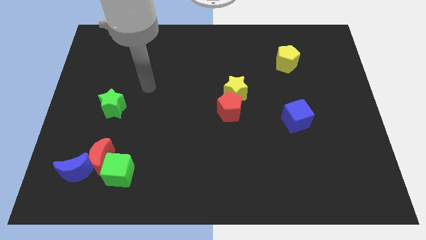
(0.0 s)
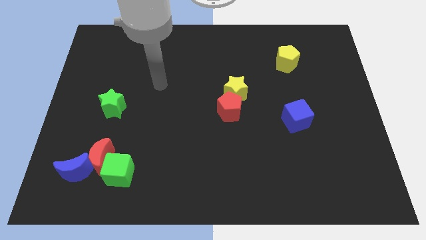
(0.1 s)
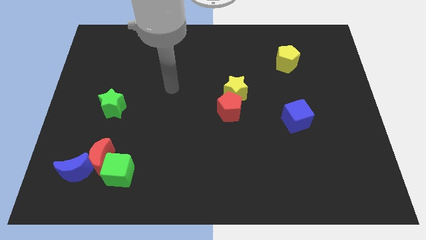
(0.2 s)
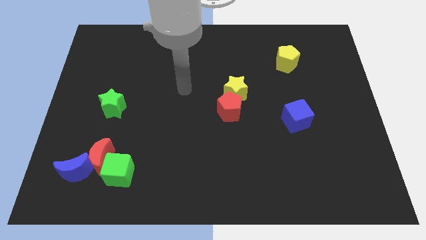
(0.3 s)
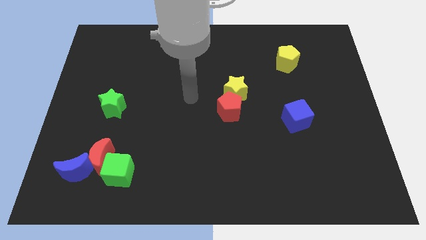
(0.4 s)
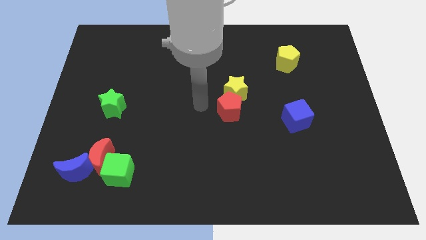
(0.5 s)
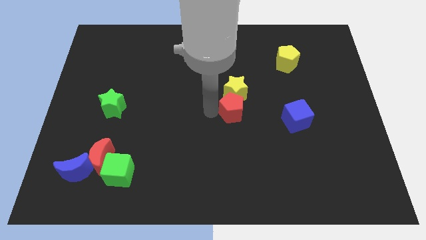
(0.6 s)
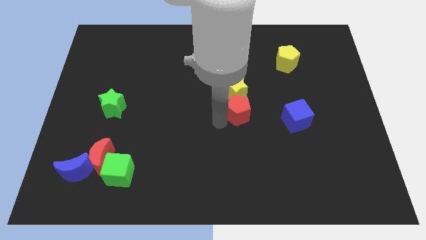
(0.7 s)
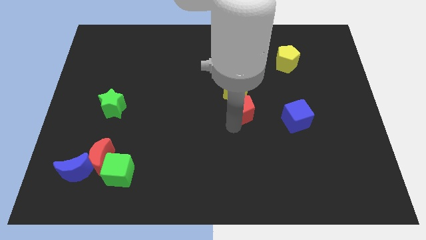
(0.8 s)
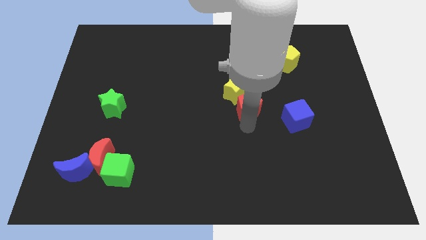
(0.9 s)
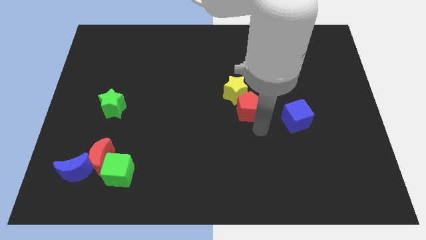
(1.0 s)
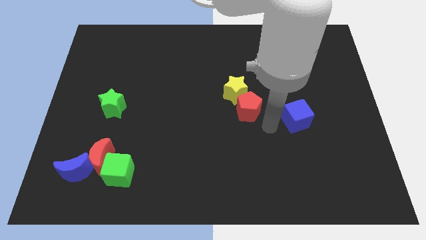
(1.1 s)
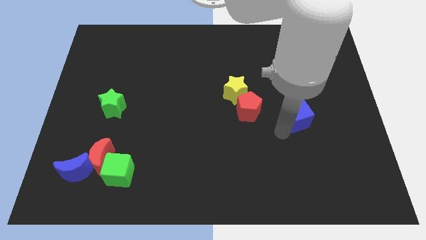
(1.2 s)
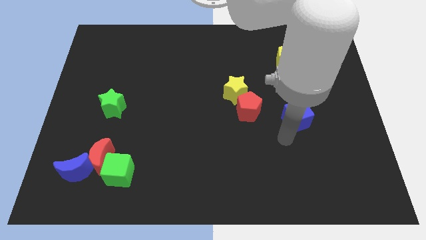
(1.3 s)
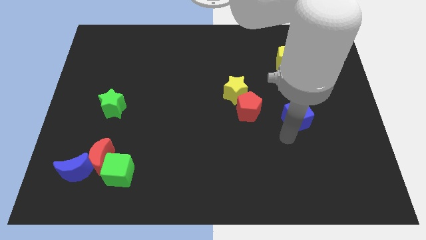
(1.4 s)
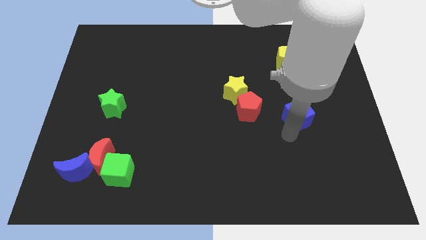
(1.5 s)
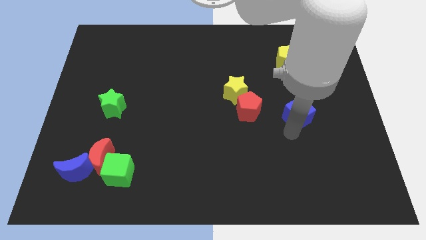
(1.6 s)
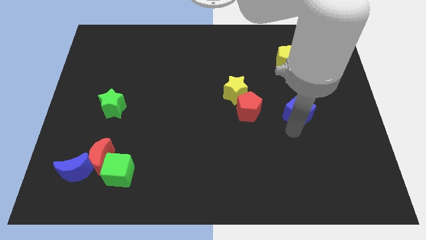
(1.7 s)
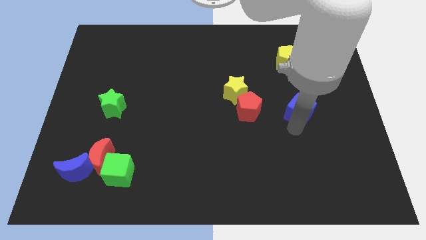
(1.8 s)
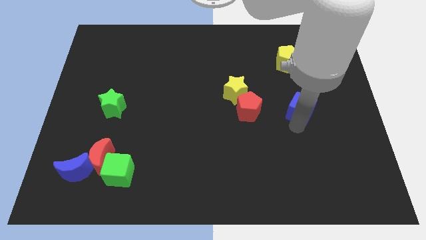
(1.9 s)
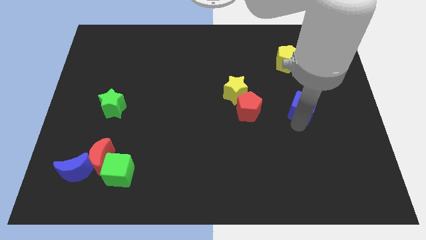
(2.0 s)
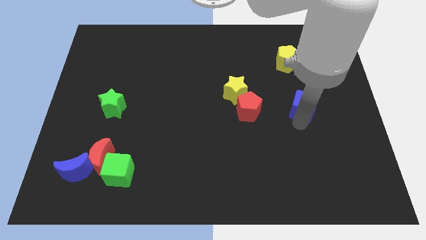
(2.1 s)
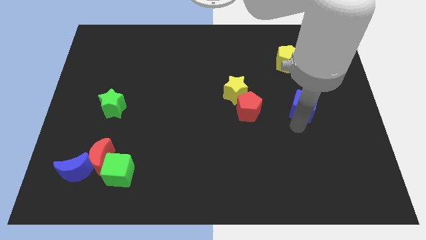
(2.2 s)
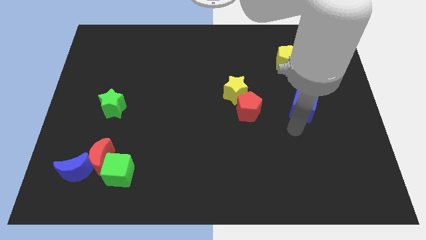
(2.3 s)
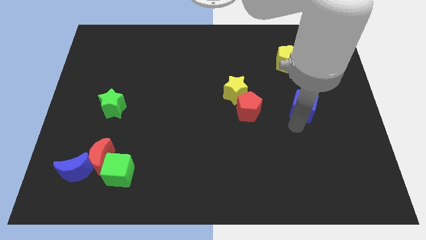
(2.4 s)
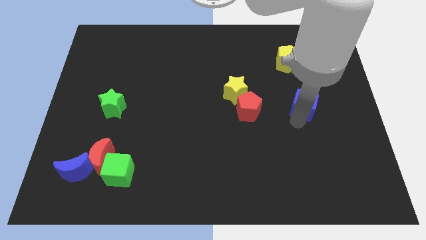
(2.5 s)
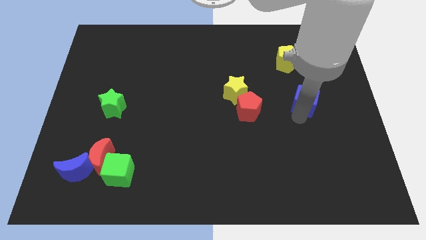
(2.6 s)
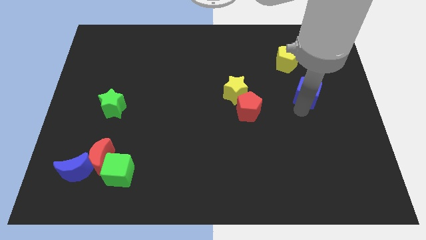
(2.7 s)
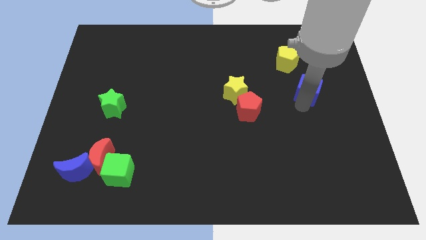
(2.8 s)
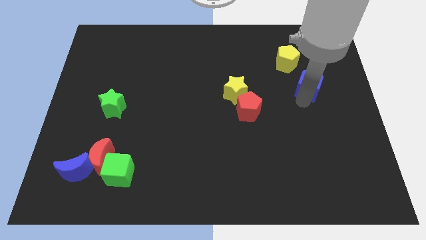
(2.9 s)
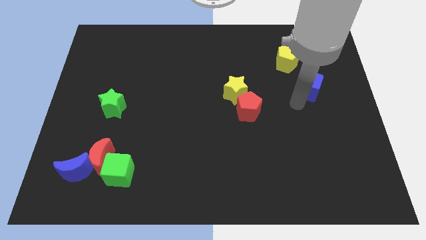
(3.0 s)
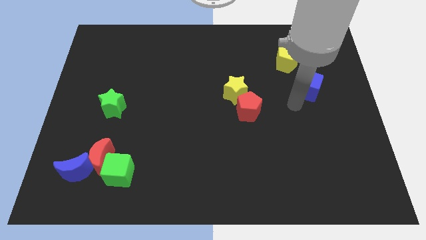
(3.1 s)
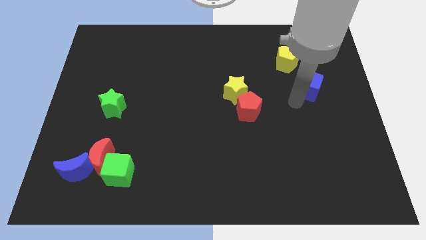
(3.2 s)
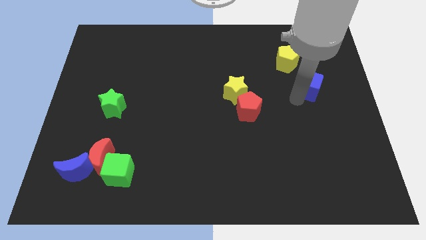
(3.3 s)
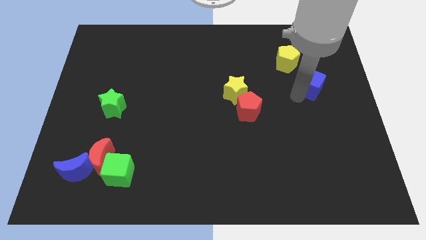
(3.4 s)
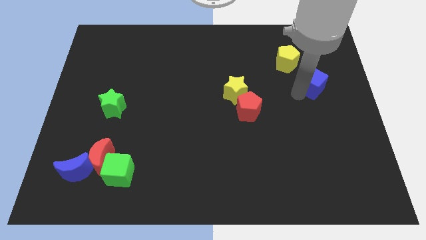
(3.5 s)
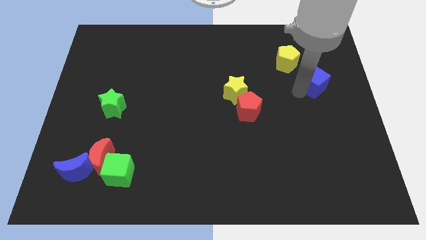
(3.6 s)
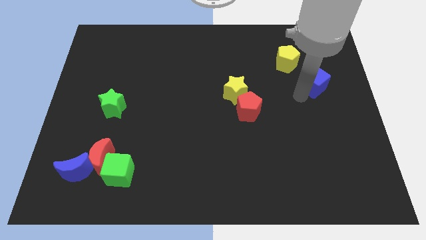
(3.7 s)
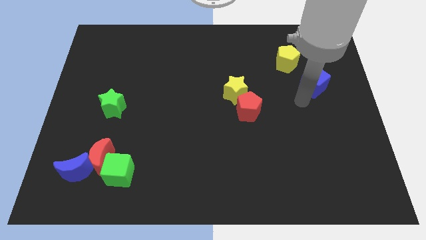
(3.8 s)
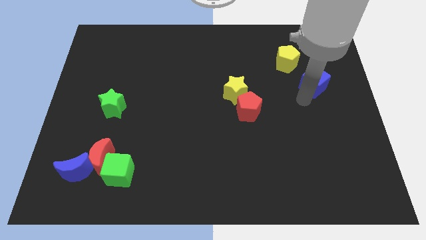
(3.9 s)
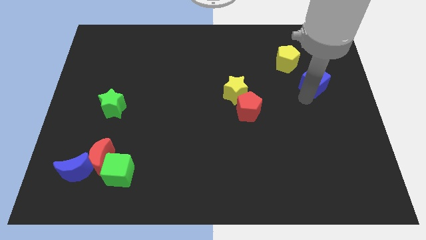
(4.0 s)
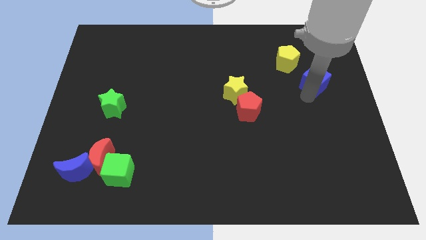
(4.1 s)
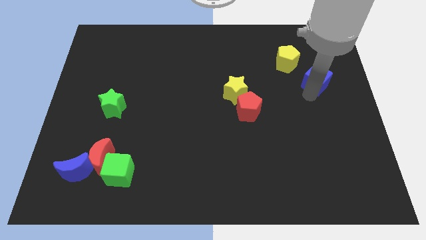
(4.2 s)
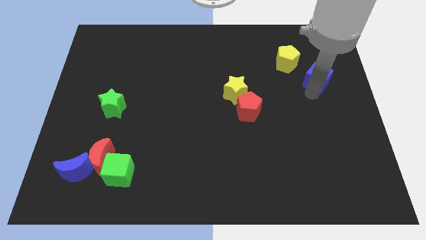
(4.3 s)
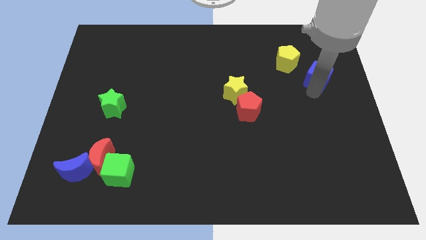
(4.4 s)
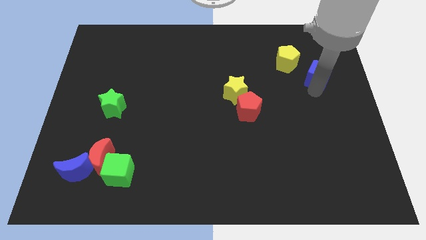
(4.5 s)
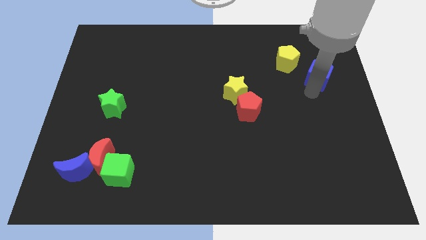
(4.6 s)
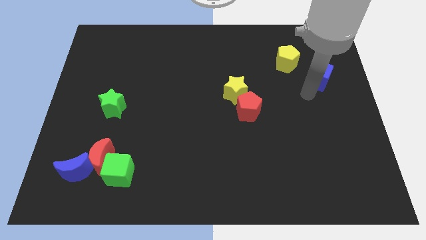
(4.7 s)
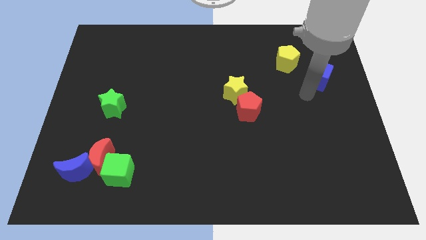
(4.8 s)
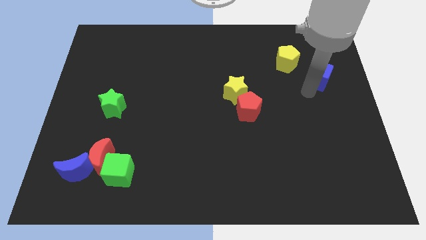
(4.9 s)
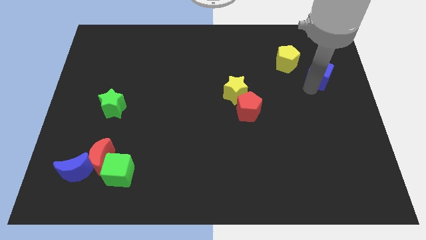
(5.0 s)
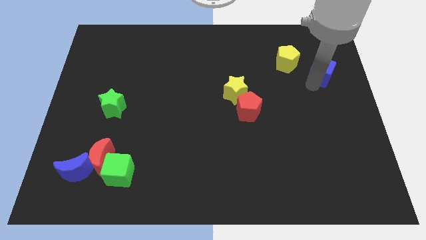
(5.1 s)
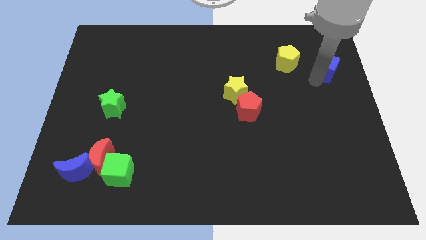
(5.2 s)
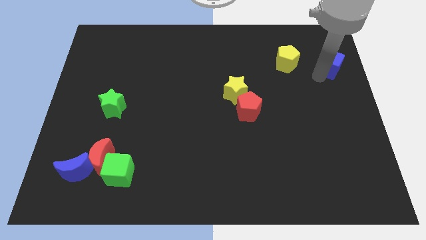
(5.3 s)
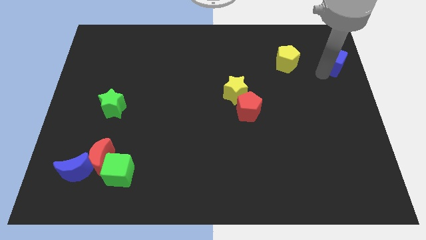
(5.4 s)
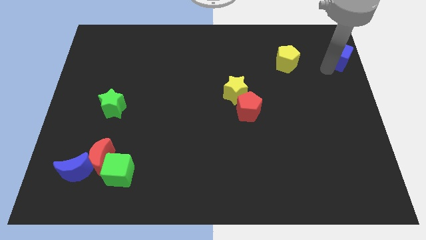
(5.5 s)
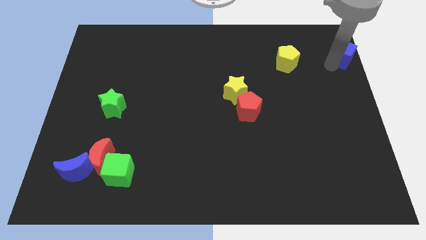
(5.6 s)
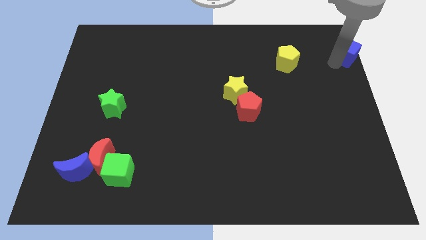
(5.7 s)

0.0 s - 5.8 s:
slide the blue cube to the top right of the board
